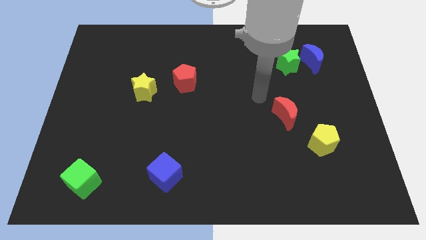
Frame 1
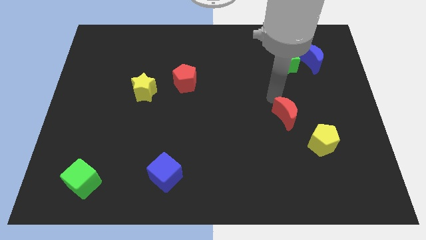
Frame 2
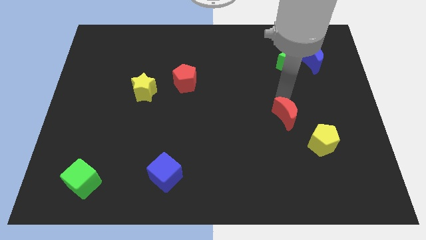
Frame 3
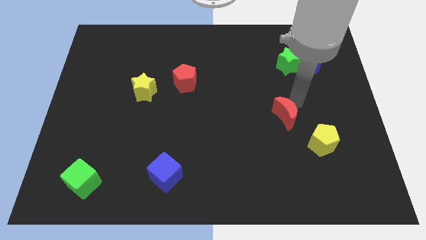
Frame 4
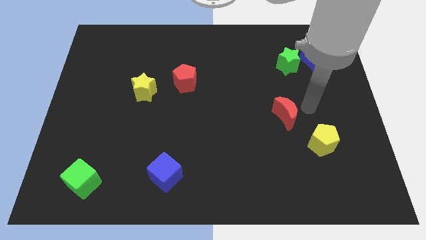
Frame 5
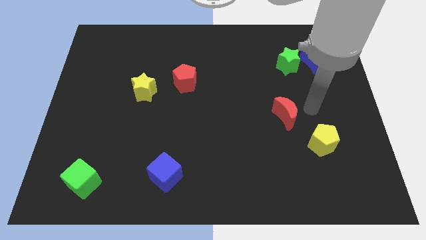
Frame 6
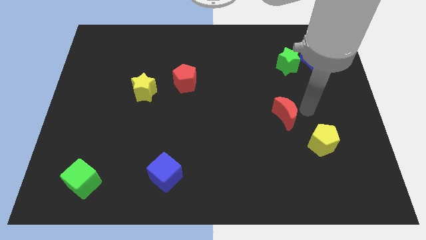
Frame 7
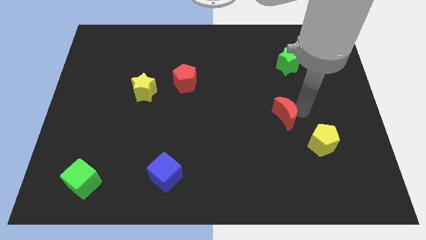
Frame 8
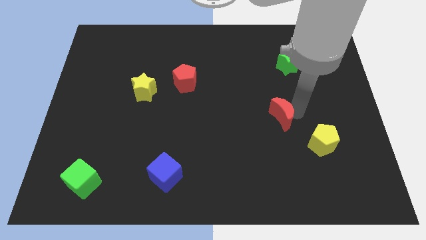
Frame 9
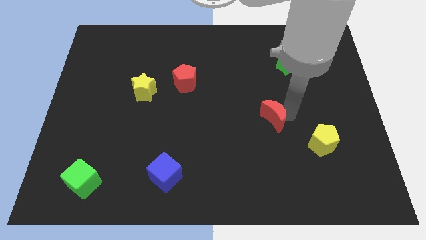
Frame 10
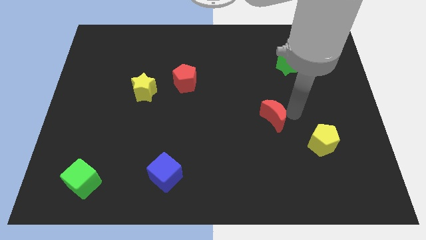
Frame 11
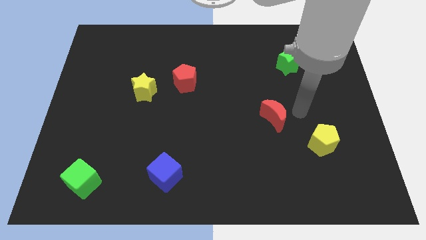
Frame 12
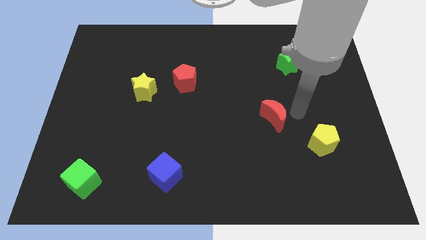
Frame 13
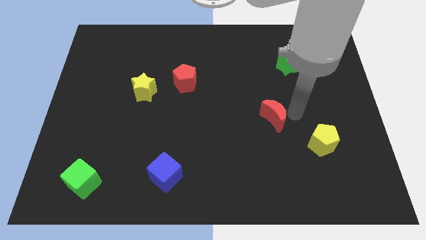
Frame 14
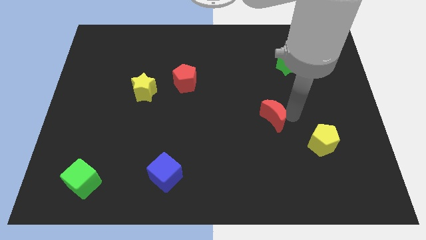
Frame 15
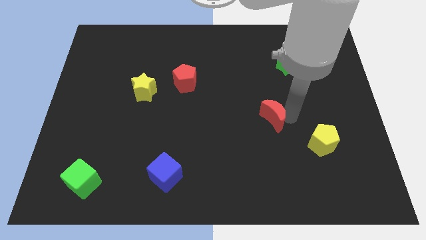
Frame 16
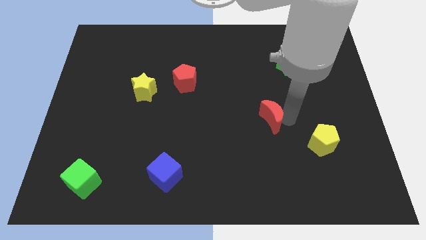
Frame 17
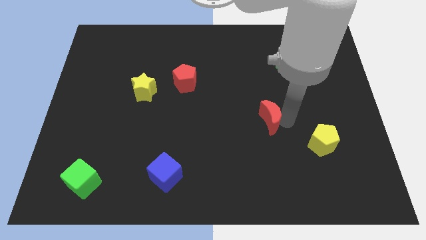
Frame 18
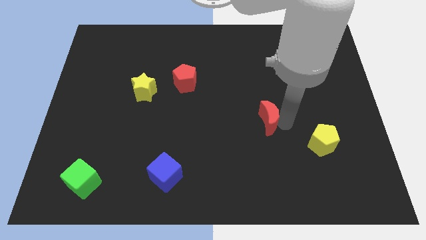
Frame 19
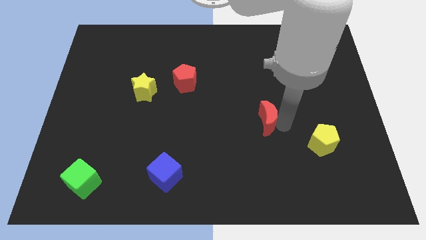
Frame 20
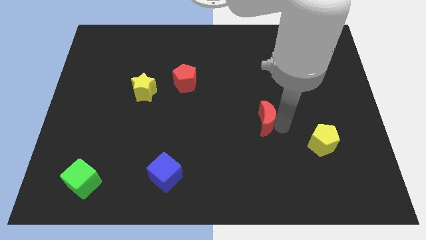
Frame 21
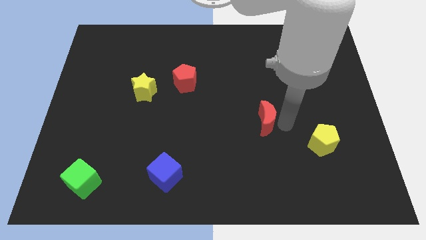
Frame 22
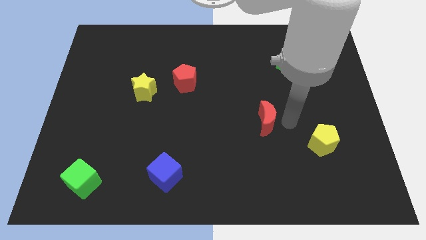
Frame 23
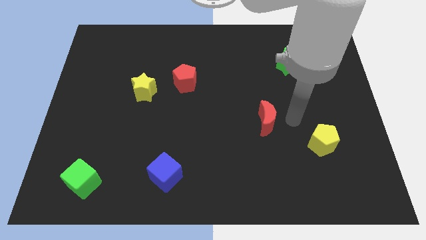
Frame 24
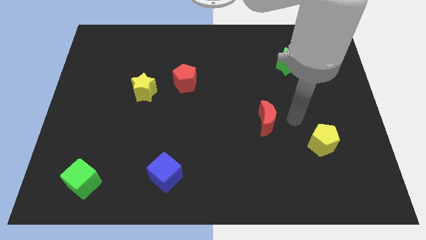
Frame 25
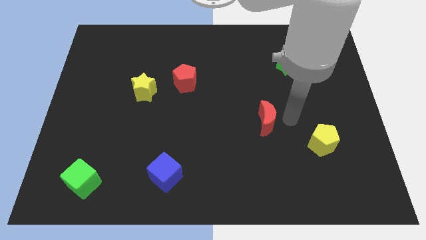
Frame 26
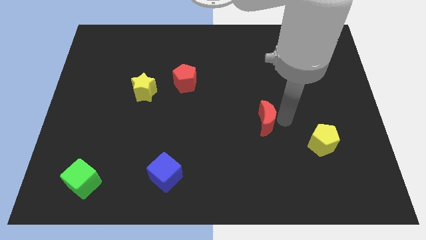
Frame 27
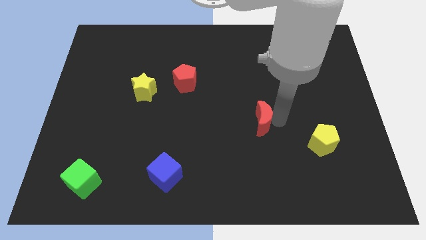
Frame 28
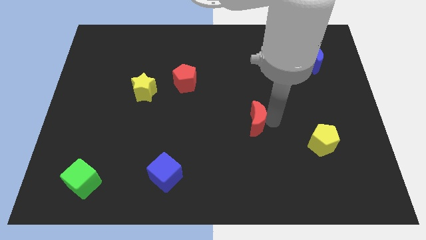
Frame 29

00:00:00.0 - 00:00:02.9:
push the red moon to the left slightly

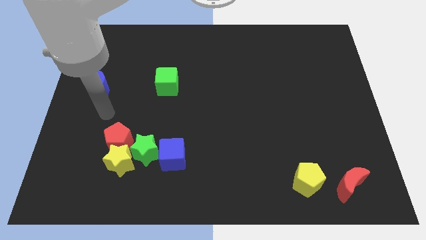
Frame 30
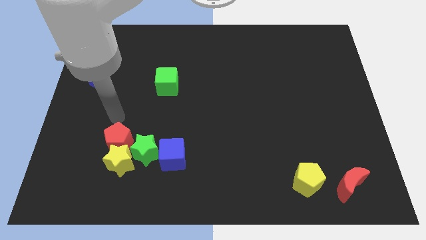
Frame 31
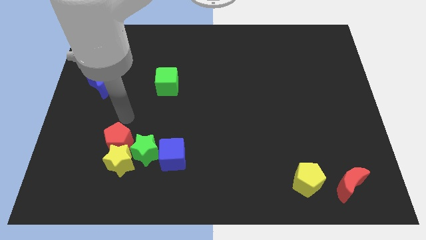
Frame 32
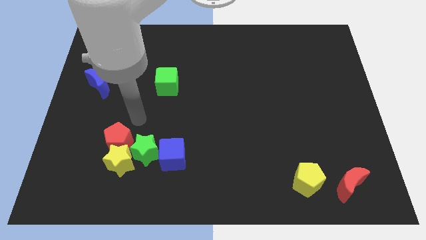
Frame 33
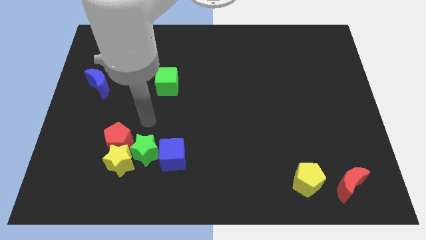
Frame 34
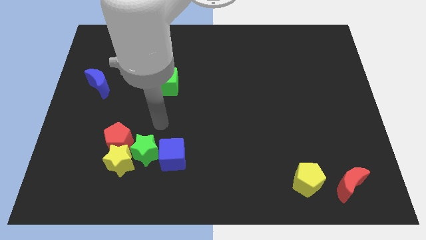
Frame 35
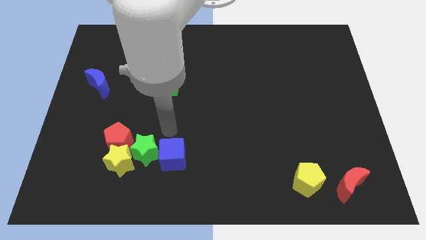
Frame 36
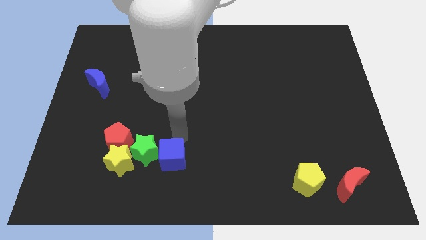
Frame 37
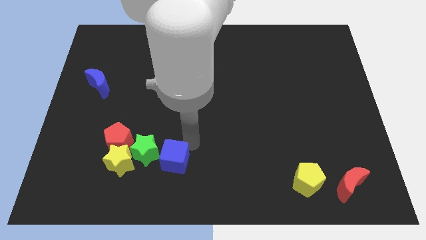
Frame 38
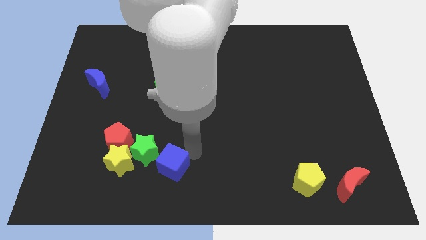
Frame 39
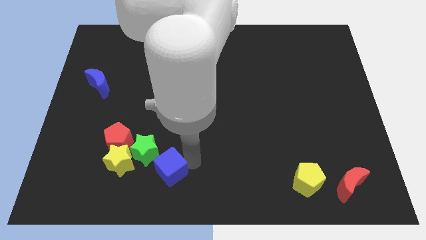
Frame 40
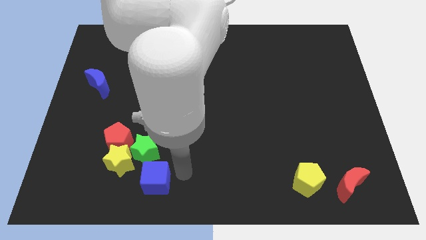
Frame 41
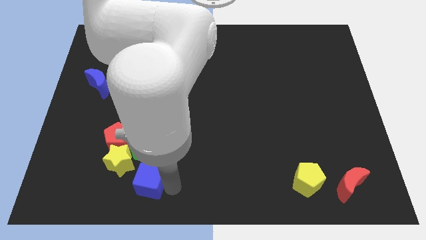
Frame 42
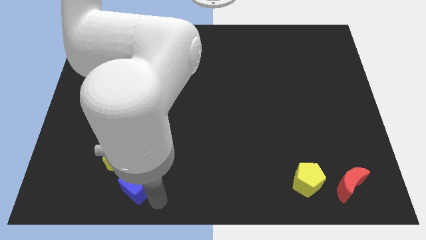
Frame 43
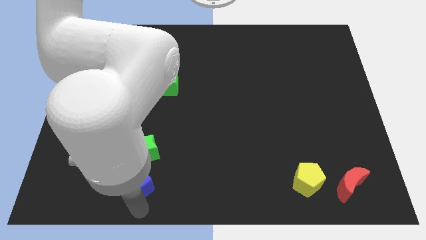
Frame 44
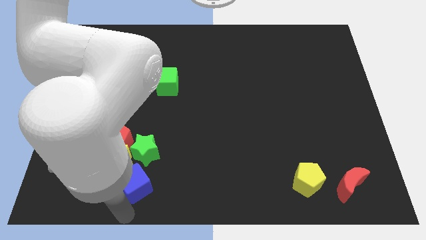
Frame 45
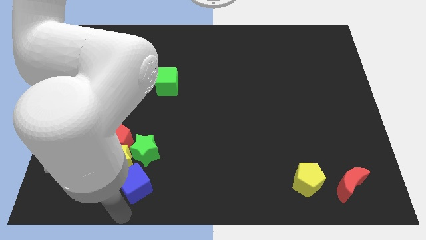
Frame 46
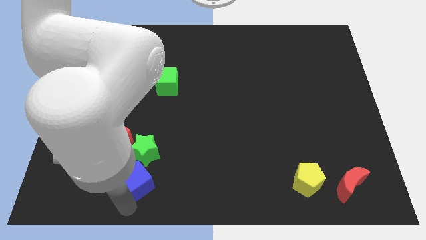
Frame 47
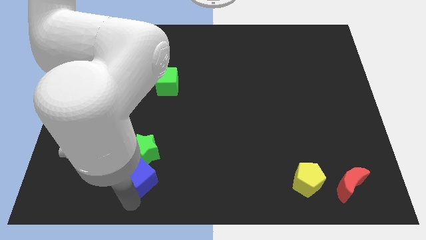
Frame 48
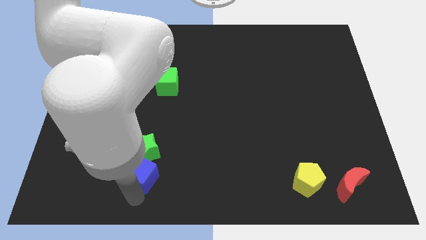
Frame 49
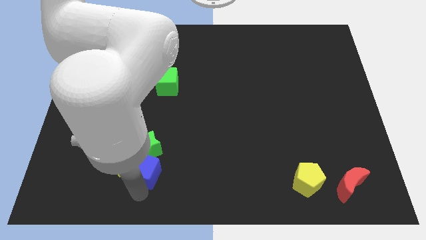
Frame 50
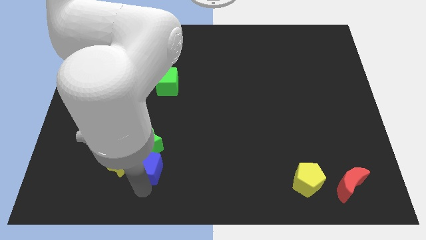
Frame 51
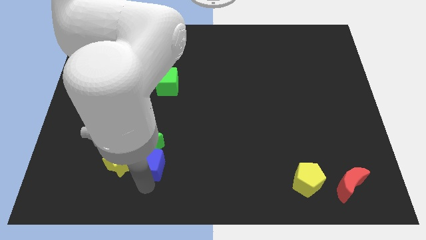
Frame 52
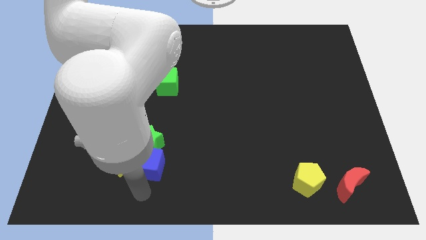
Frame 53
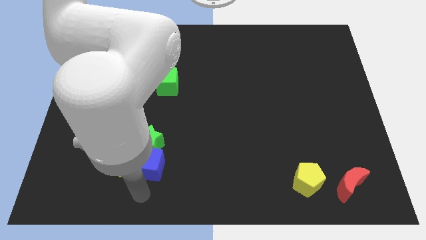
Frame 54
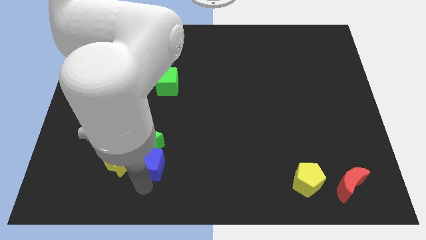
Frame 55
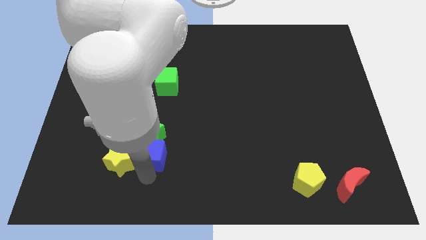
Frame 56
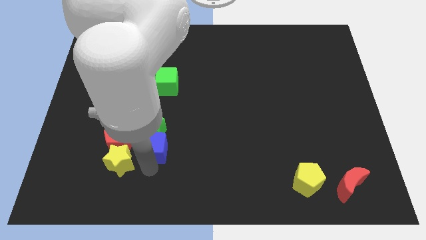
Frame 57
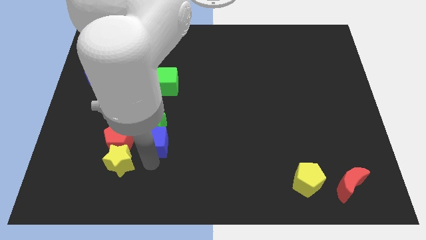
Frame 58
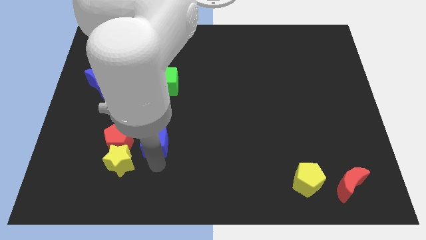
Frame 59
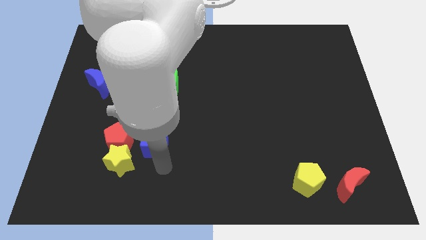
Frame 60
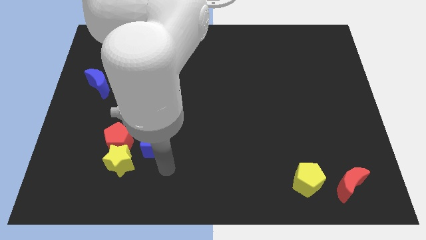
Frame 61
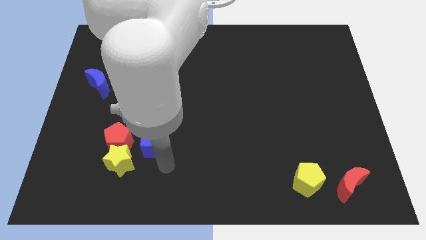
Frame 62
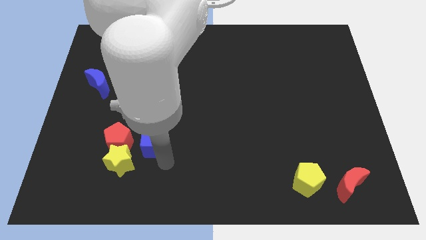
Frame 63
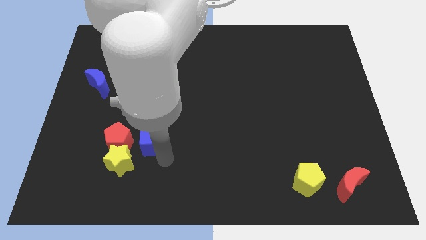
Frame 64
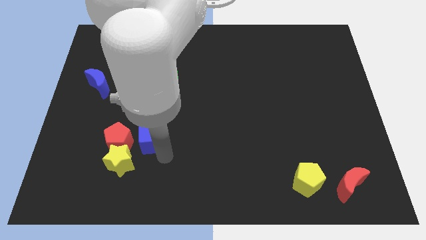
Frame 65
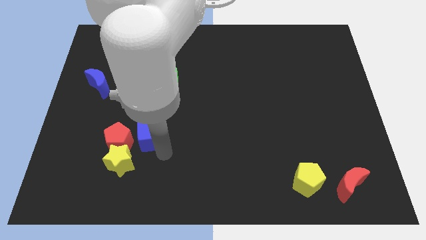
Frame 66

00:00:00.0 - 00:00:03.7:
slide the blue cube a little up and to the left diagonally

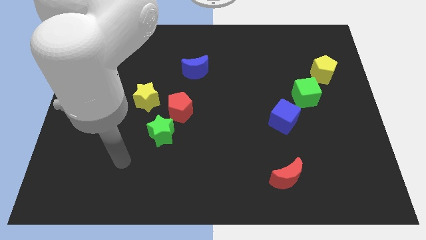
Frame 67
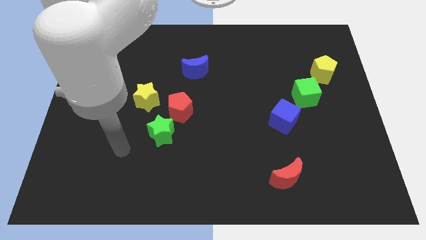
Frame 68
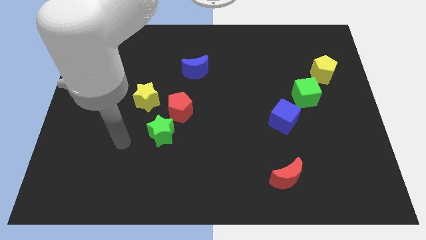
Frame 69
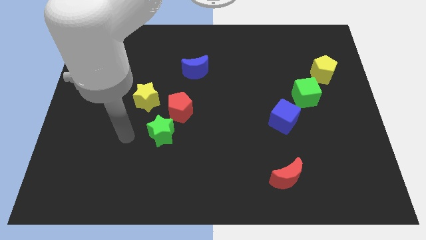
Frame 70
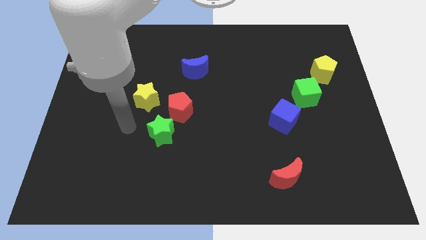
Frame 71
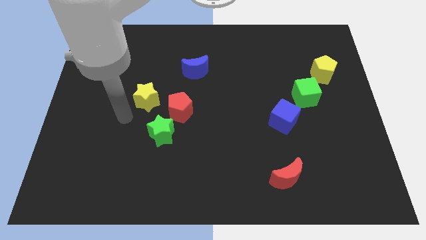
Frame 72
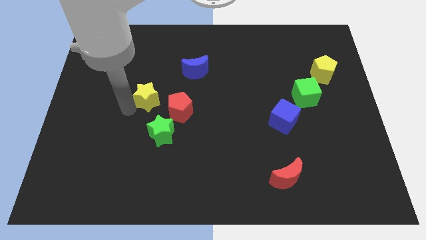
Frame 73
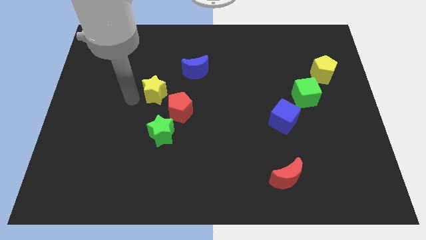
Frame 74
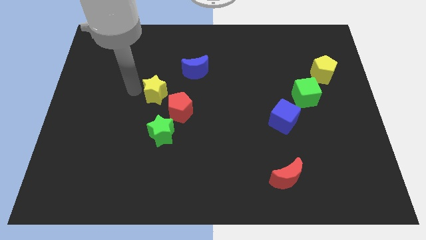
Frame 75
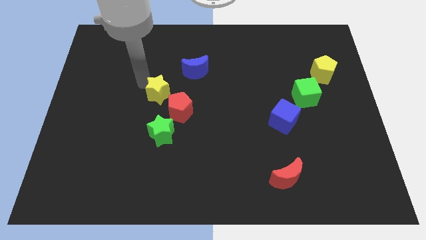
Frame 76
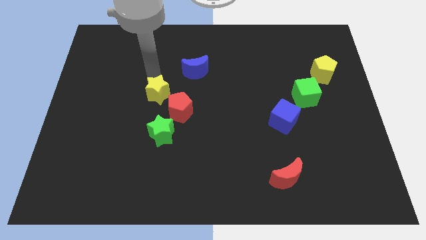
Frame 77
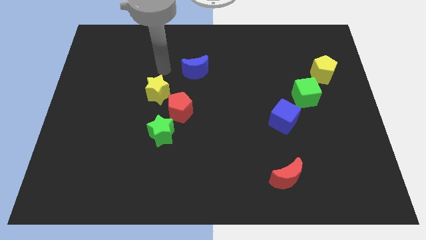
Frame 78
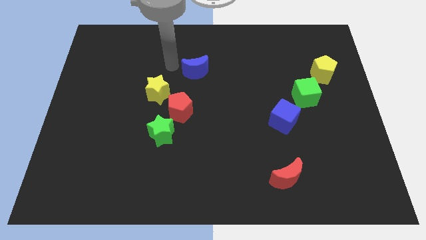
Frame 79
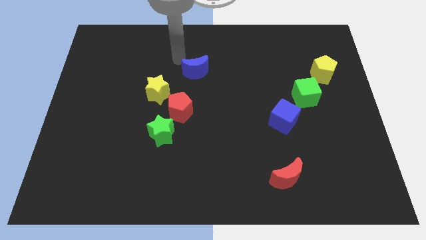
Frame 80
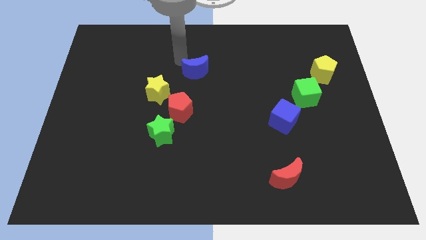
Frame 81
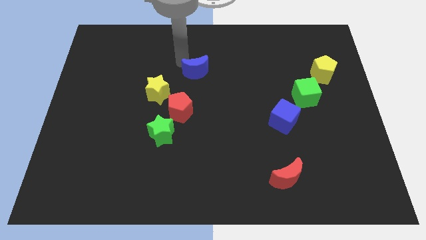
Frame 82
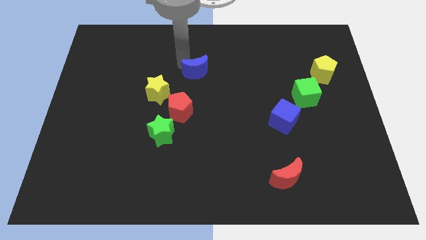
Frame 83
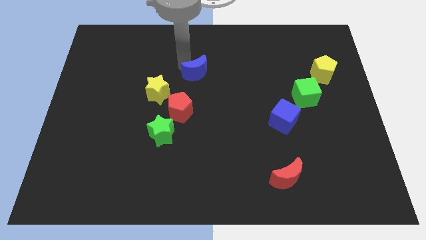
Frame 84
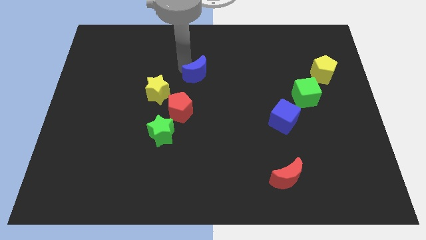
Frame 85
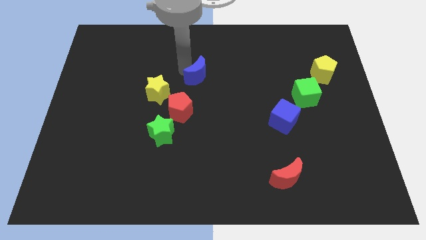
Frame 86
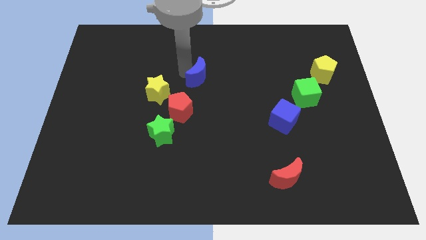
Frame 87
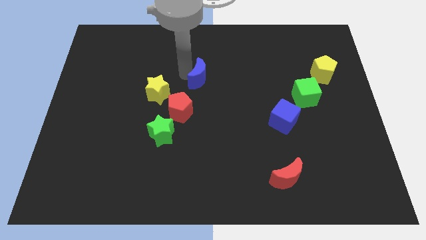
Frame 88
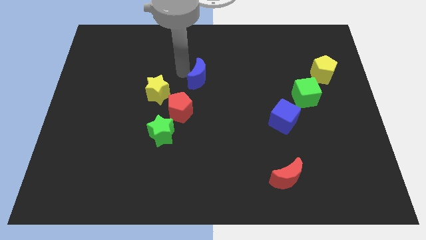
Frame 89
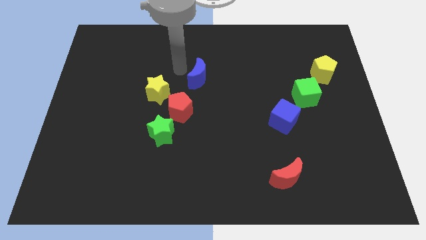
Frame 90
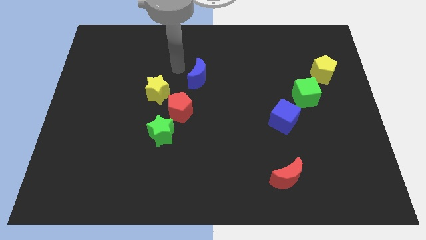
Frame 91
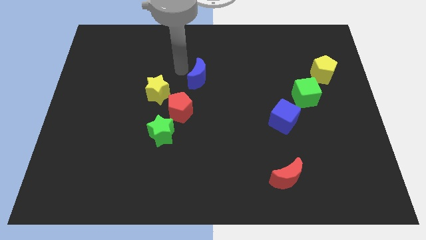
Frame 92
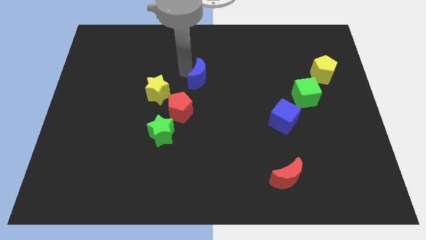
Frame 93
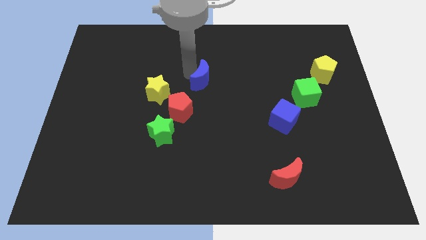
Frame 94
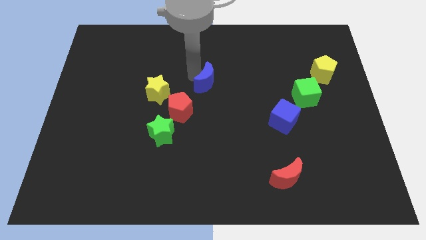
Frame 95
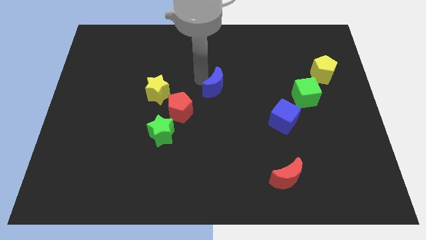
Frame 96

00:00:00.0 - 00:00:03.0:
slightly push the blue moon down and then to the right
